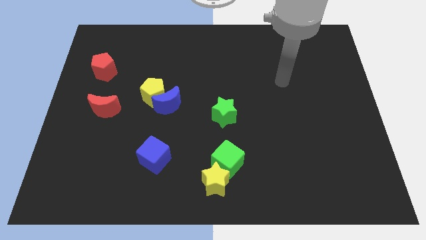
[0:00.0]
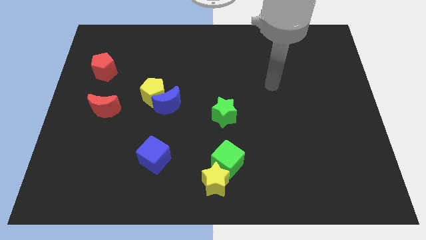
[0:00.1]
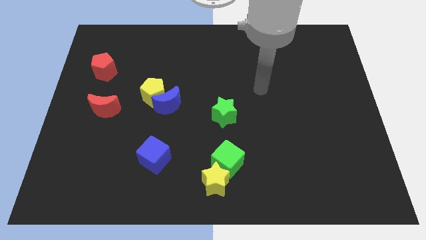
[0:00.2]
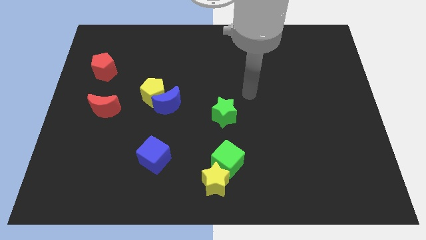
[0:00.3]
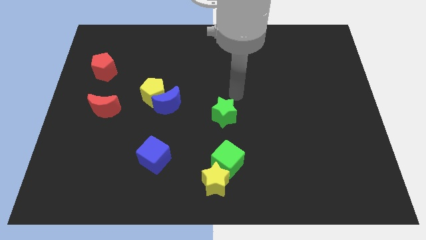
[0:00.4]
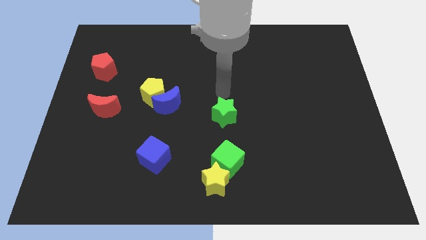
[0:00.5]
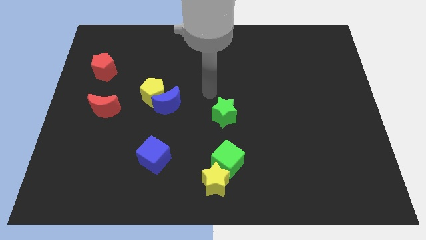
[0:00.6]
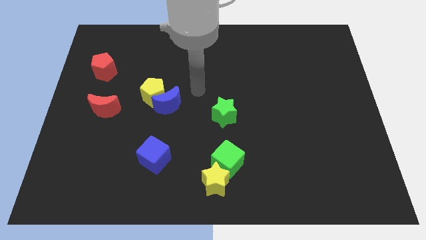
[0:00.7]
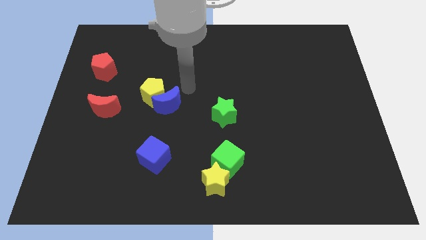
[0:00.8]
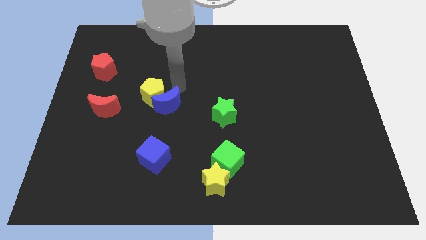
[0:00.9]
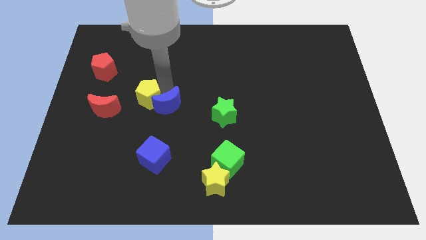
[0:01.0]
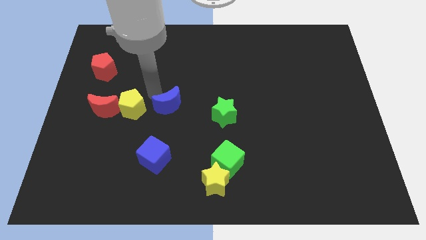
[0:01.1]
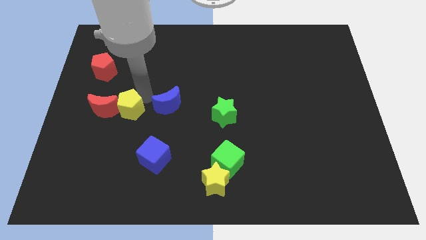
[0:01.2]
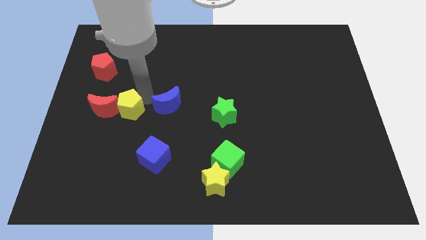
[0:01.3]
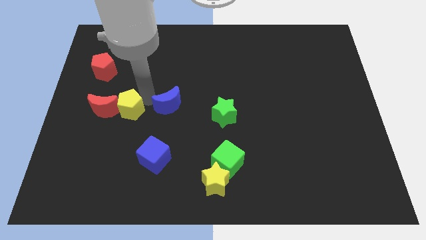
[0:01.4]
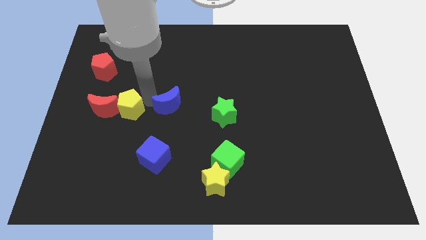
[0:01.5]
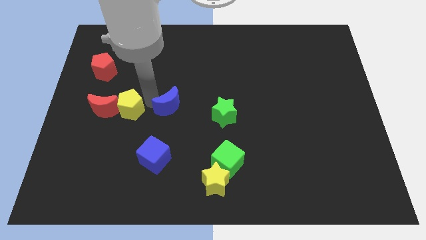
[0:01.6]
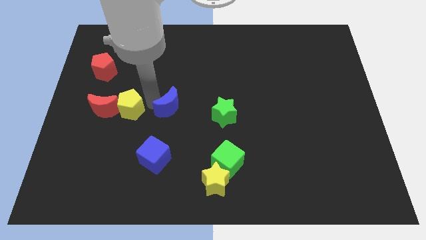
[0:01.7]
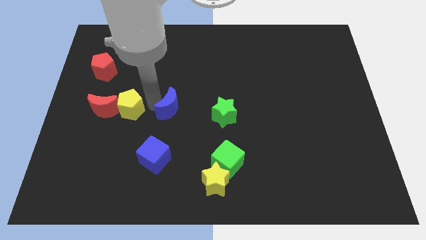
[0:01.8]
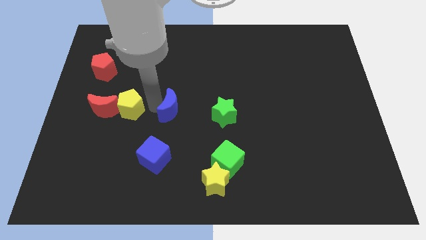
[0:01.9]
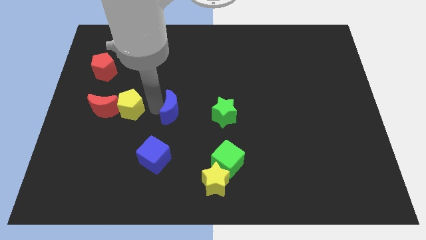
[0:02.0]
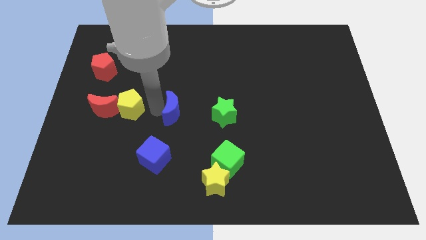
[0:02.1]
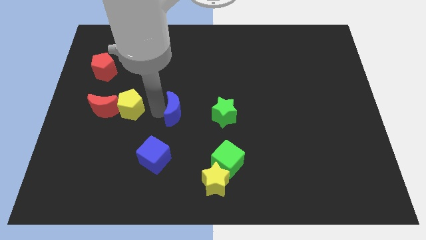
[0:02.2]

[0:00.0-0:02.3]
move the blue moon away from the yellow pentagon

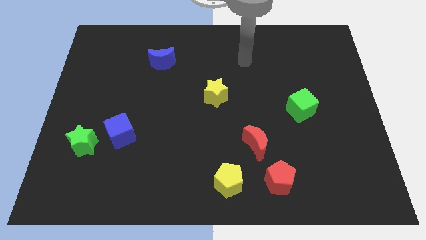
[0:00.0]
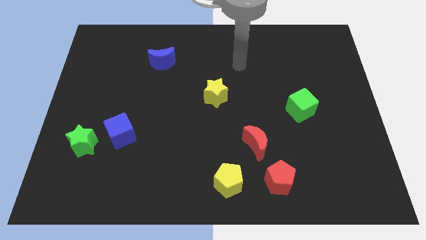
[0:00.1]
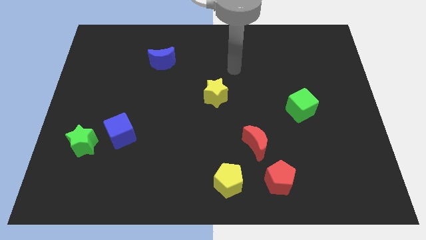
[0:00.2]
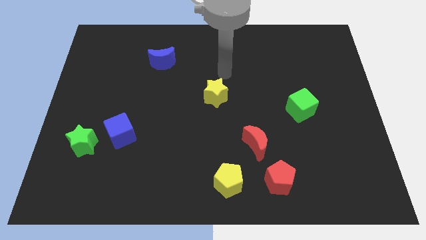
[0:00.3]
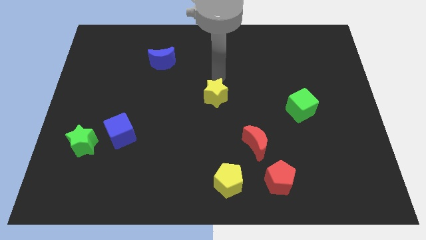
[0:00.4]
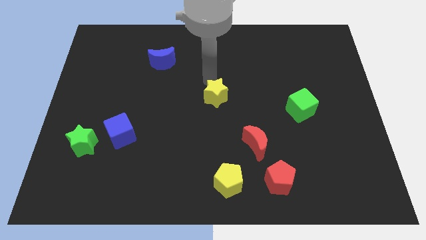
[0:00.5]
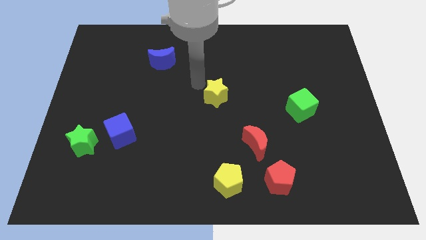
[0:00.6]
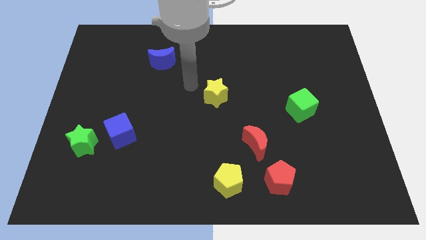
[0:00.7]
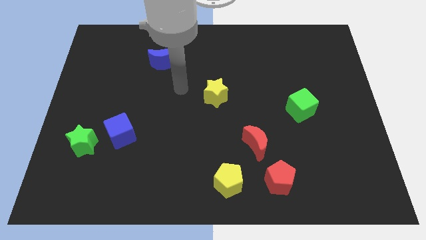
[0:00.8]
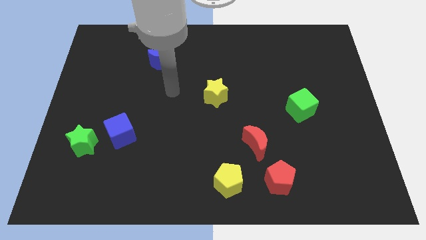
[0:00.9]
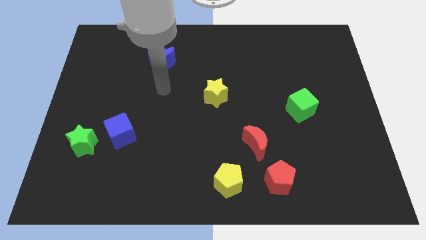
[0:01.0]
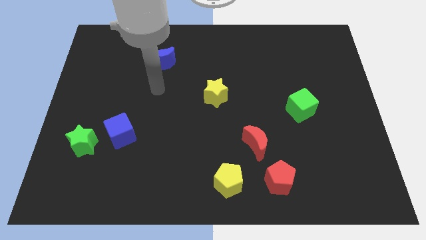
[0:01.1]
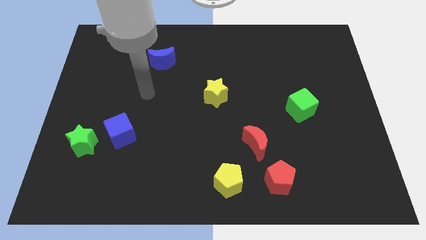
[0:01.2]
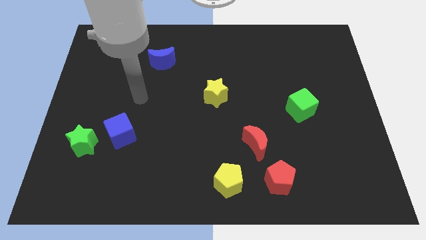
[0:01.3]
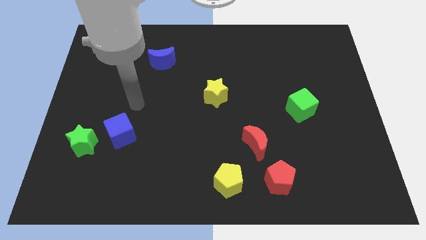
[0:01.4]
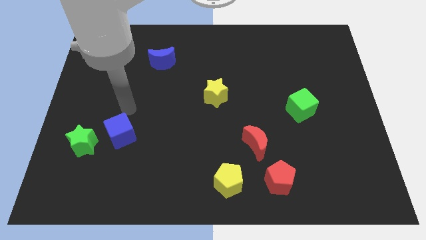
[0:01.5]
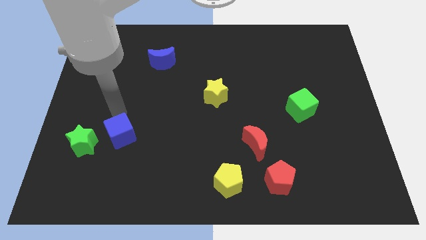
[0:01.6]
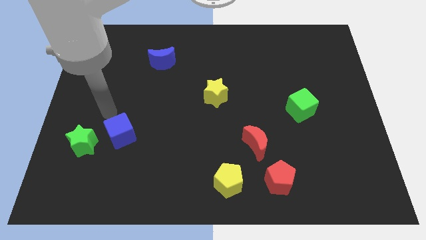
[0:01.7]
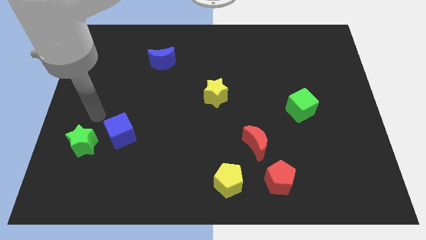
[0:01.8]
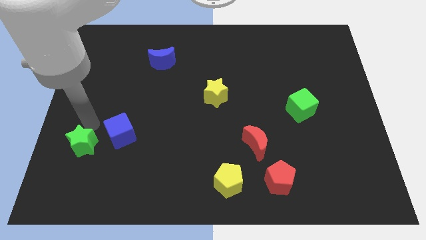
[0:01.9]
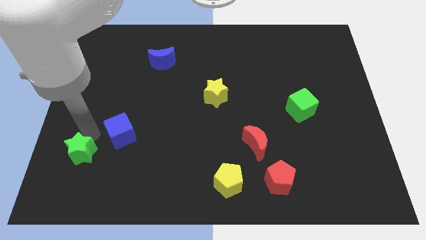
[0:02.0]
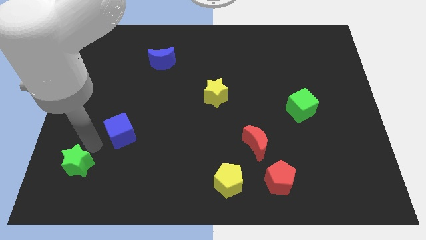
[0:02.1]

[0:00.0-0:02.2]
pull the blue cube apart from the green star

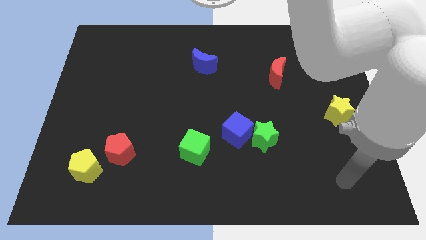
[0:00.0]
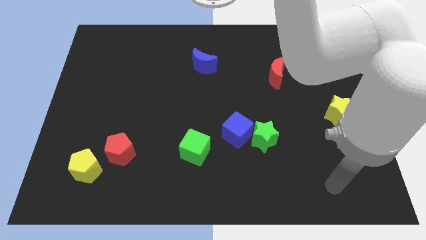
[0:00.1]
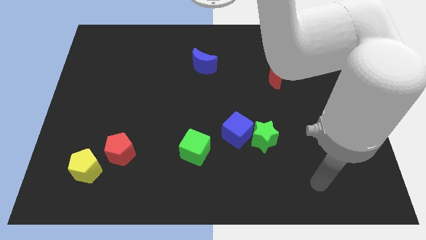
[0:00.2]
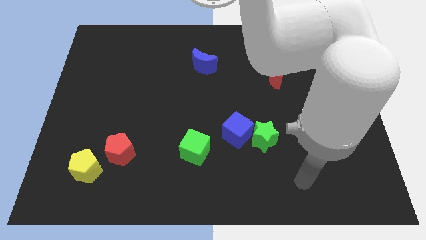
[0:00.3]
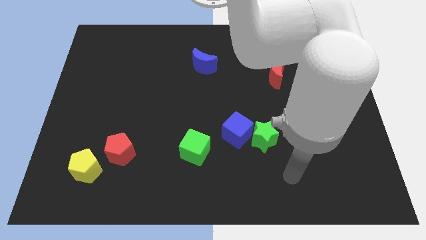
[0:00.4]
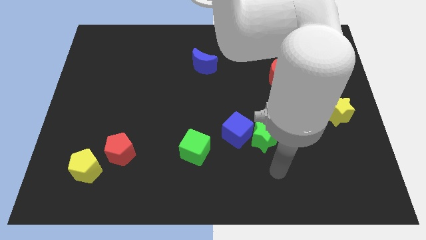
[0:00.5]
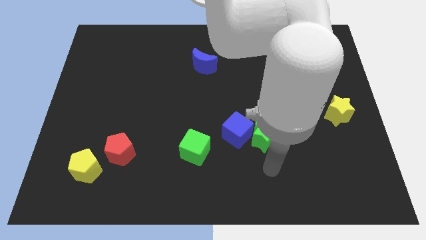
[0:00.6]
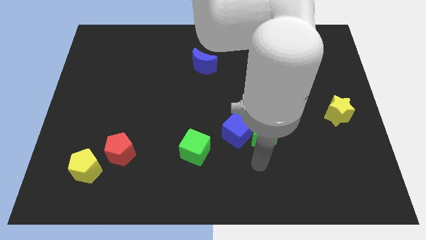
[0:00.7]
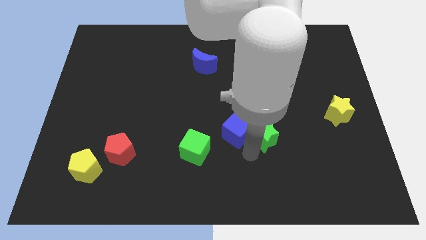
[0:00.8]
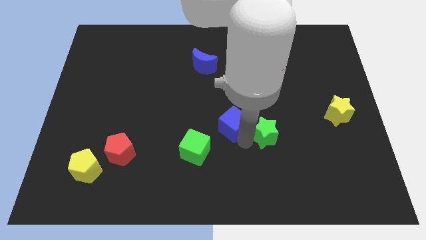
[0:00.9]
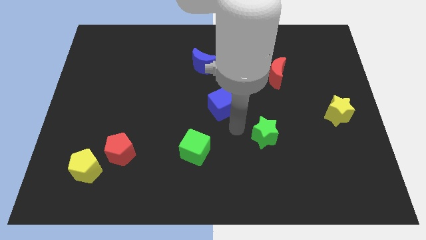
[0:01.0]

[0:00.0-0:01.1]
separate the green star from the blue cube

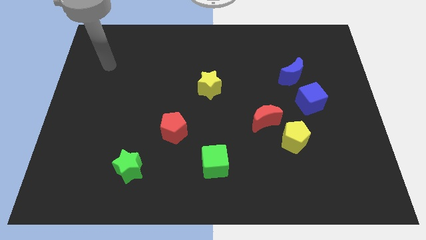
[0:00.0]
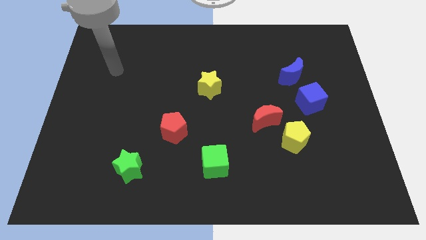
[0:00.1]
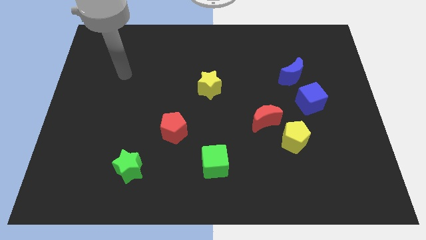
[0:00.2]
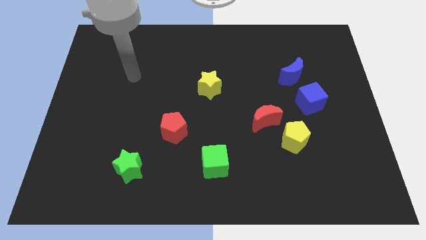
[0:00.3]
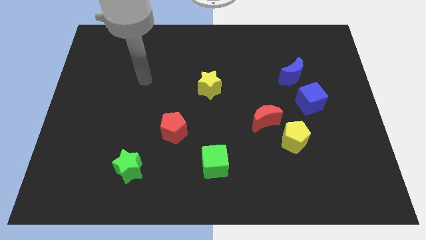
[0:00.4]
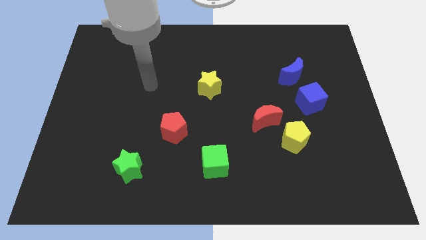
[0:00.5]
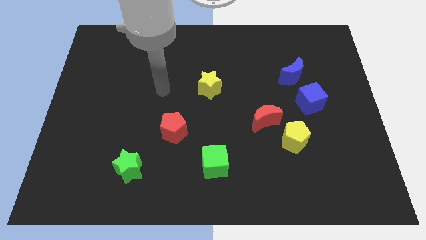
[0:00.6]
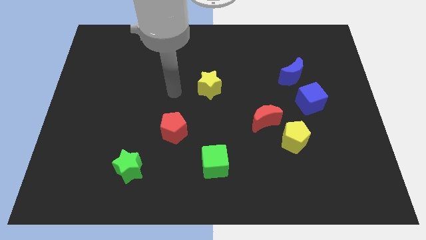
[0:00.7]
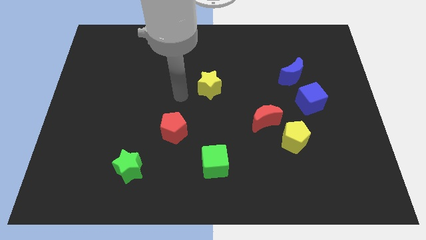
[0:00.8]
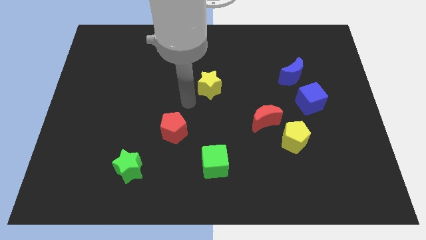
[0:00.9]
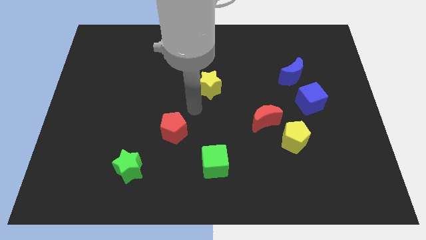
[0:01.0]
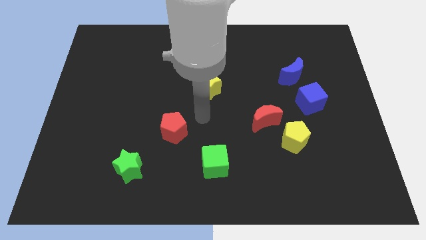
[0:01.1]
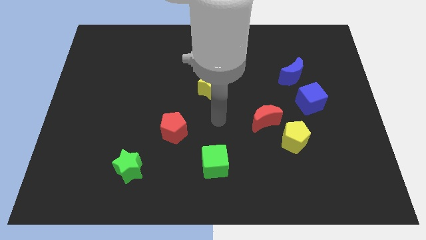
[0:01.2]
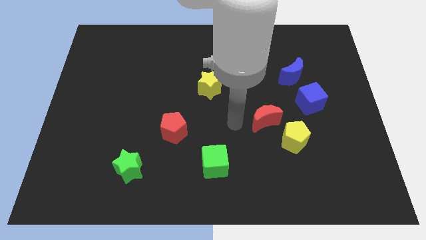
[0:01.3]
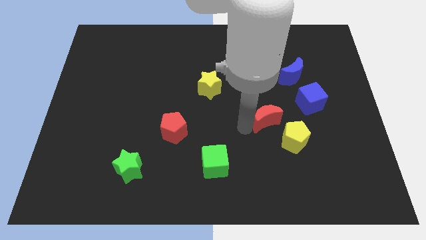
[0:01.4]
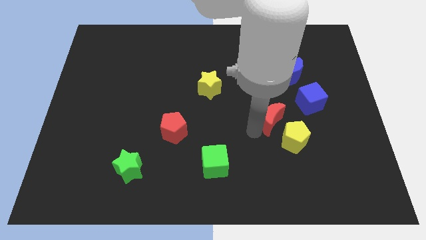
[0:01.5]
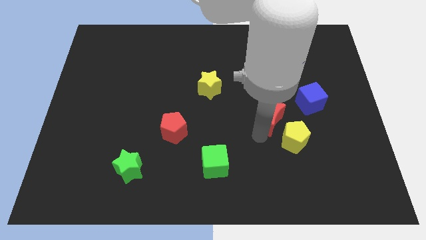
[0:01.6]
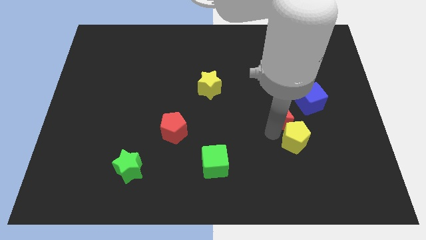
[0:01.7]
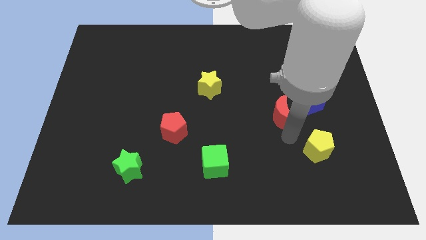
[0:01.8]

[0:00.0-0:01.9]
pull the red moon apart from the yellow pentagon

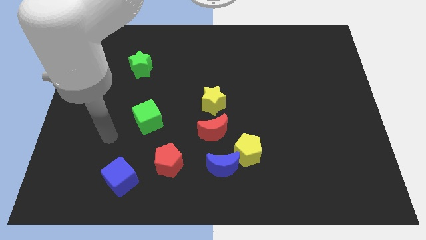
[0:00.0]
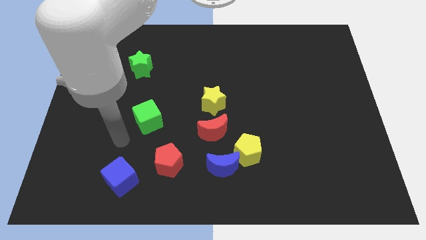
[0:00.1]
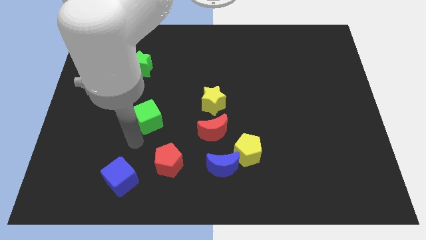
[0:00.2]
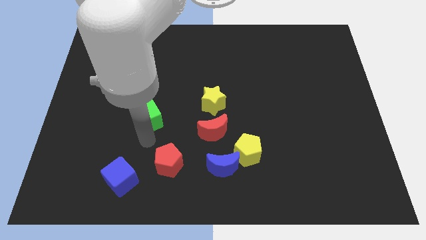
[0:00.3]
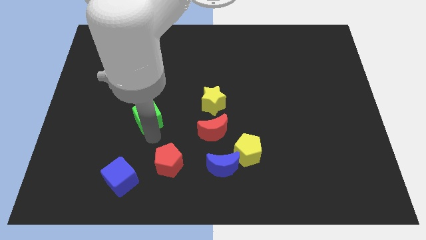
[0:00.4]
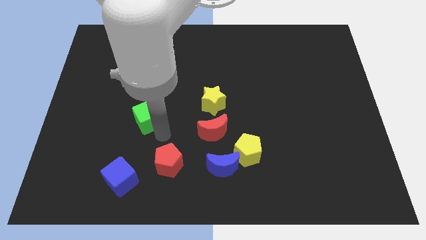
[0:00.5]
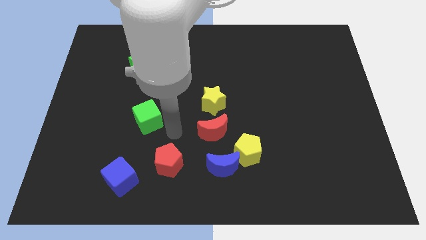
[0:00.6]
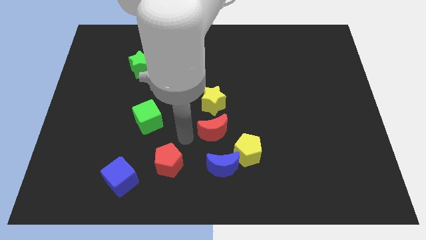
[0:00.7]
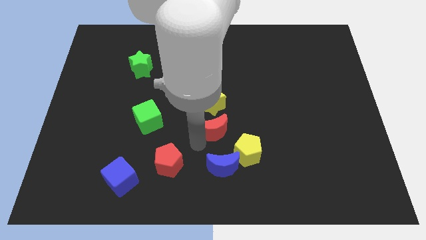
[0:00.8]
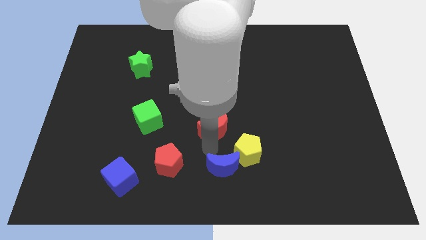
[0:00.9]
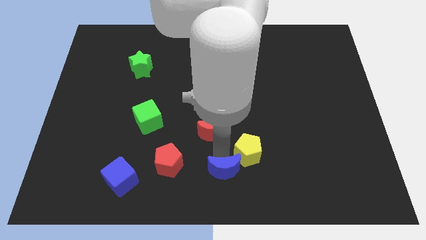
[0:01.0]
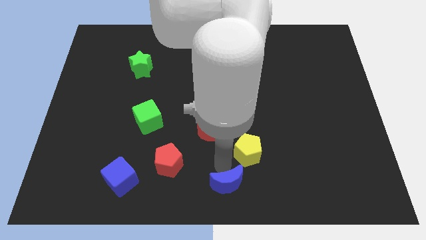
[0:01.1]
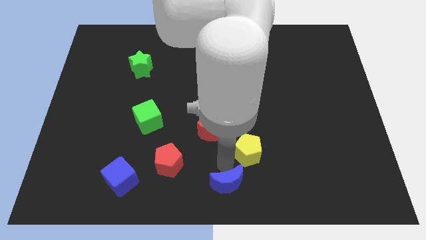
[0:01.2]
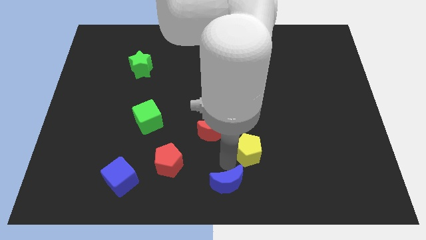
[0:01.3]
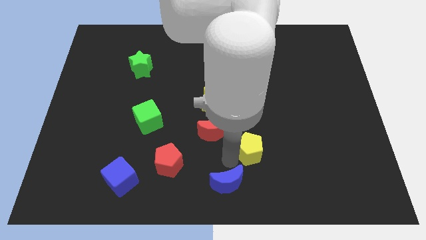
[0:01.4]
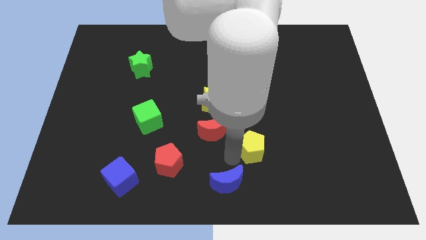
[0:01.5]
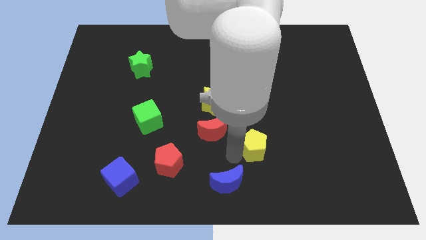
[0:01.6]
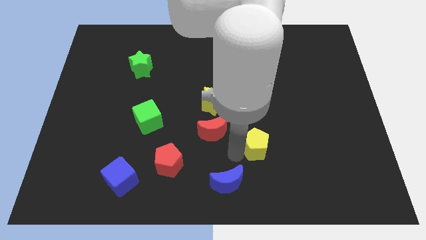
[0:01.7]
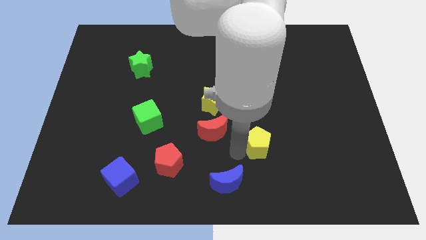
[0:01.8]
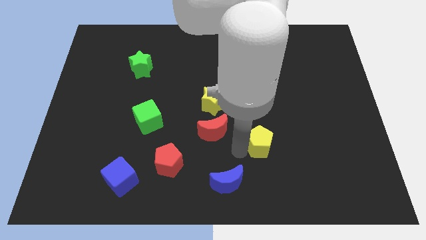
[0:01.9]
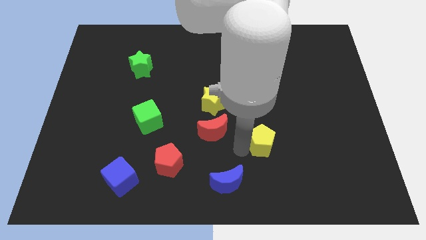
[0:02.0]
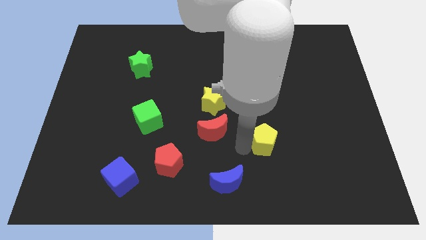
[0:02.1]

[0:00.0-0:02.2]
pull the yellow pentagon apart from the blue moon and red moon
